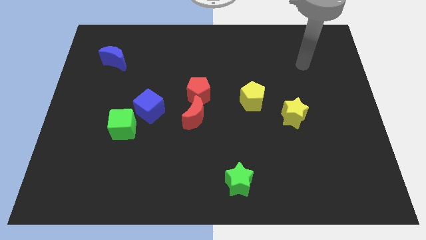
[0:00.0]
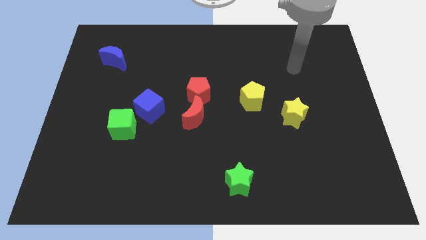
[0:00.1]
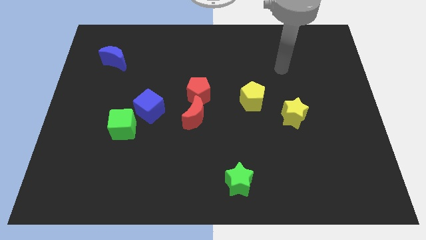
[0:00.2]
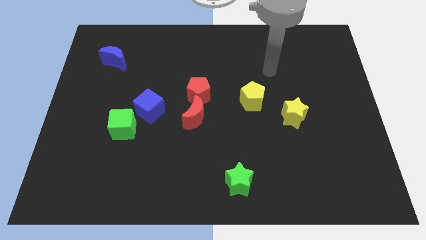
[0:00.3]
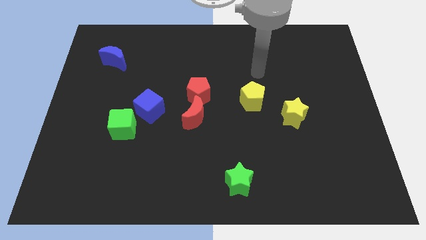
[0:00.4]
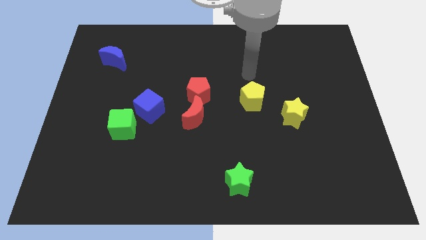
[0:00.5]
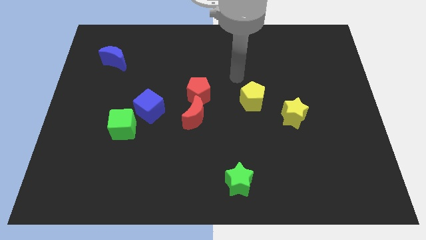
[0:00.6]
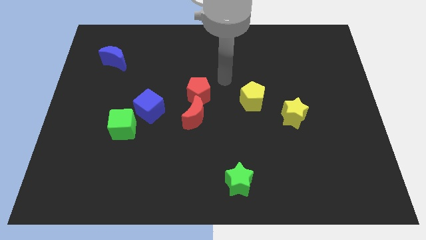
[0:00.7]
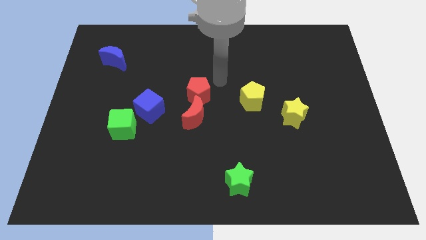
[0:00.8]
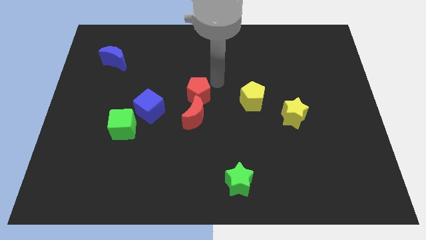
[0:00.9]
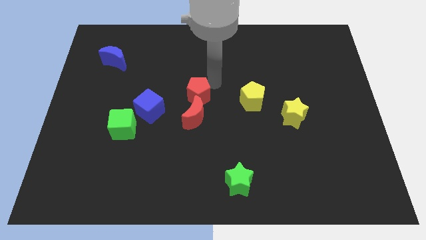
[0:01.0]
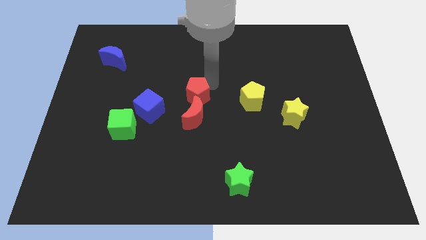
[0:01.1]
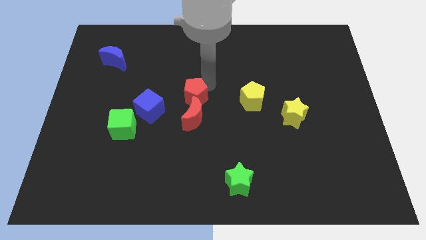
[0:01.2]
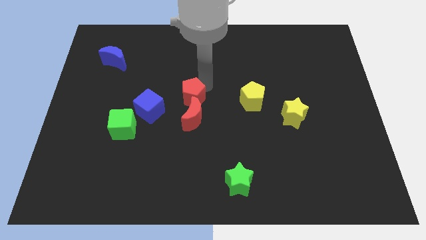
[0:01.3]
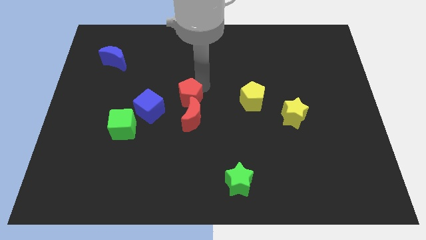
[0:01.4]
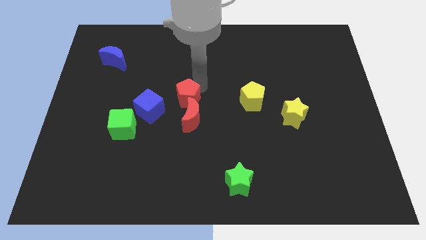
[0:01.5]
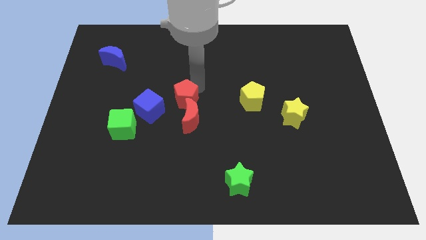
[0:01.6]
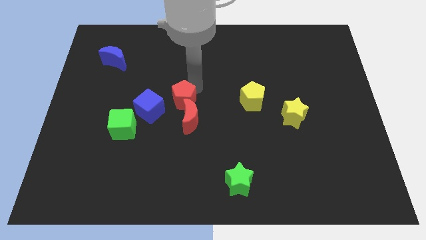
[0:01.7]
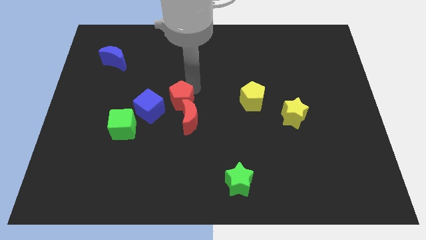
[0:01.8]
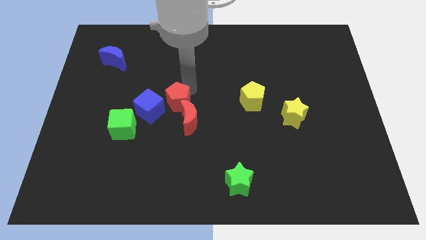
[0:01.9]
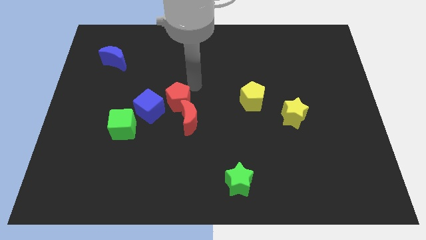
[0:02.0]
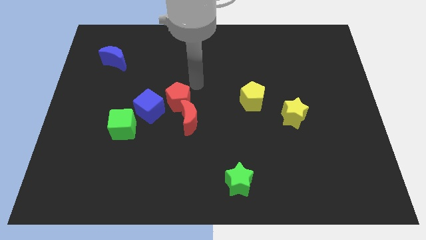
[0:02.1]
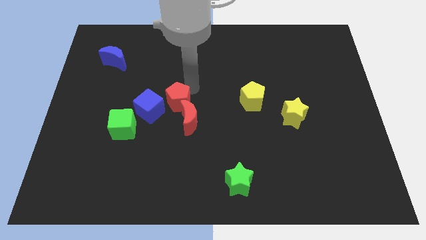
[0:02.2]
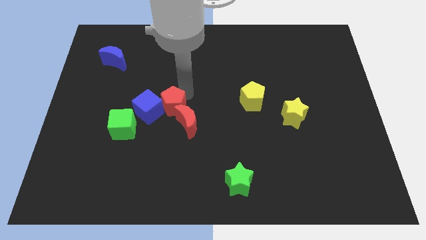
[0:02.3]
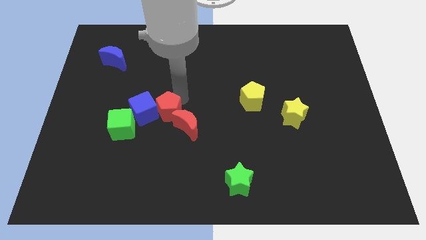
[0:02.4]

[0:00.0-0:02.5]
slightly slide the red pentagon downwards and then to the left

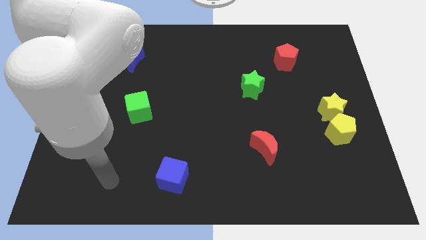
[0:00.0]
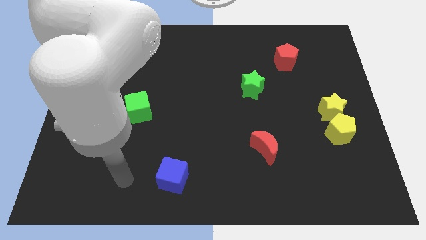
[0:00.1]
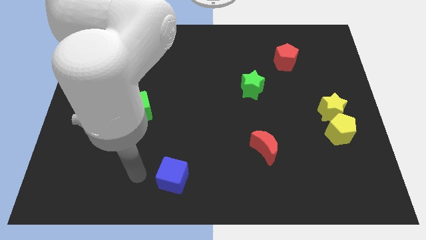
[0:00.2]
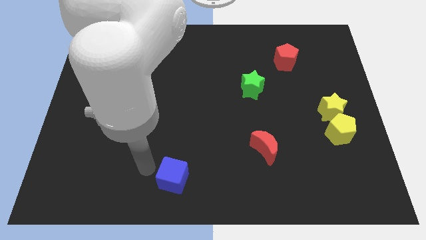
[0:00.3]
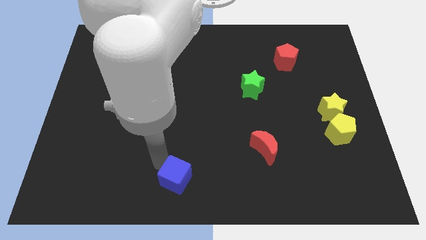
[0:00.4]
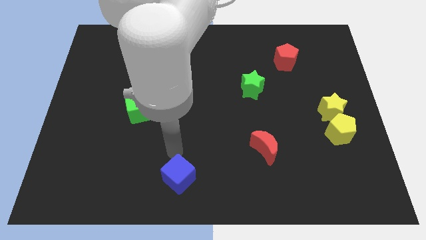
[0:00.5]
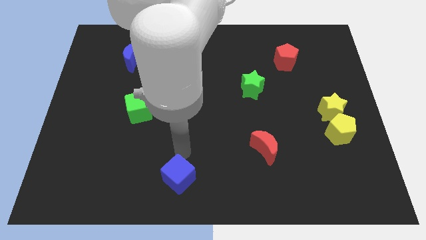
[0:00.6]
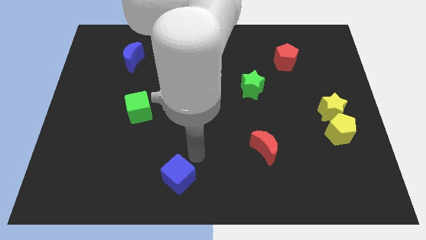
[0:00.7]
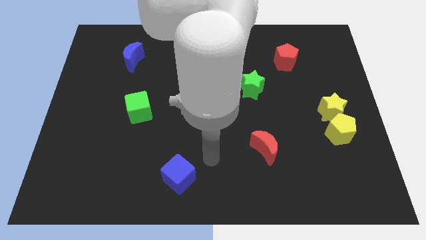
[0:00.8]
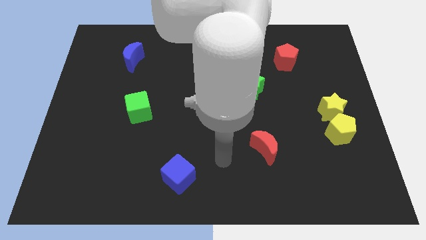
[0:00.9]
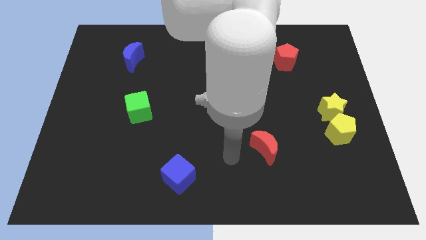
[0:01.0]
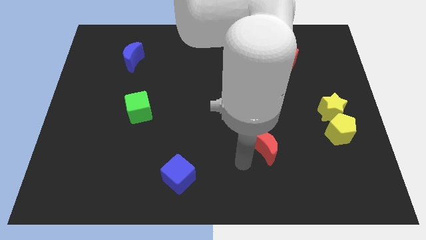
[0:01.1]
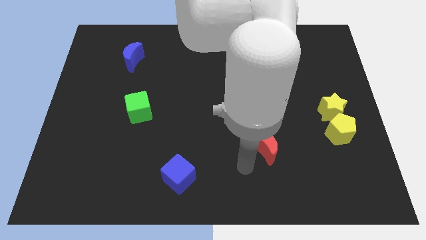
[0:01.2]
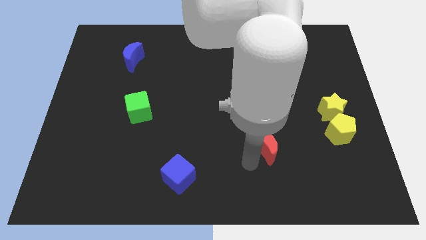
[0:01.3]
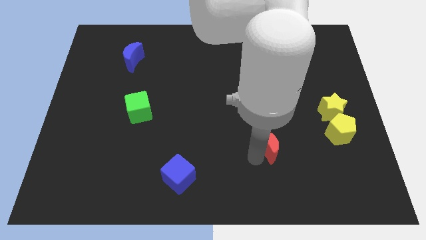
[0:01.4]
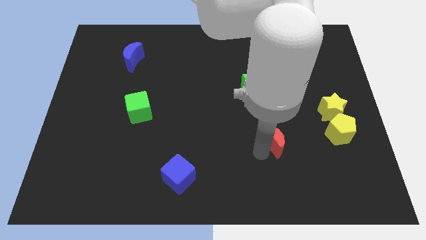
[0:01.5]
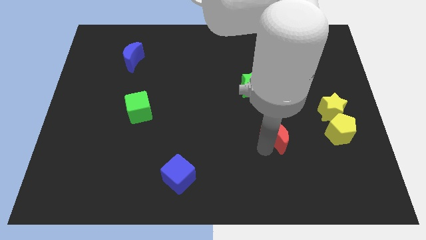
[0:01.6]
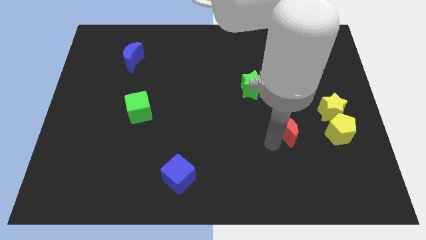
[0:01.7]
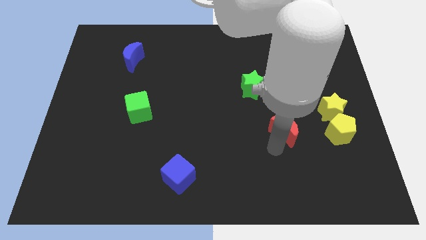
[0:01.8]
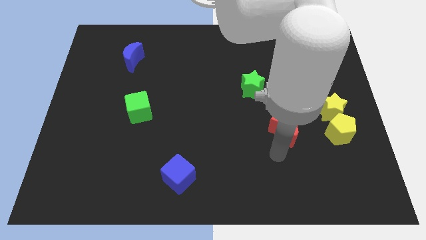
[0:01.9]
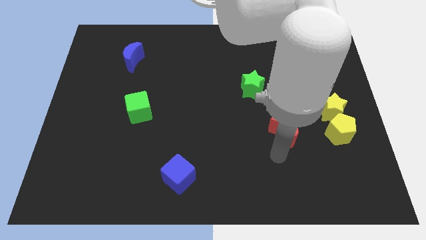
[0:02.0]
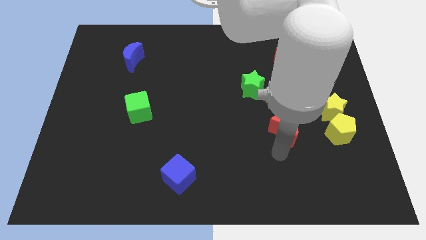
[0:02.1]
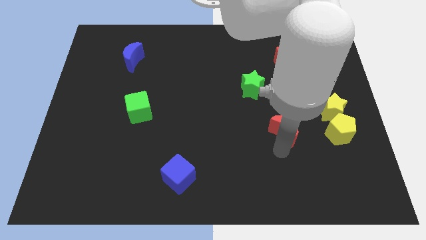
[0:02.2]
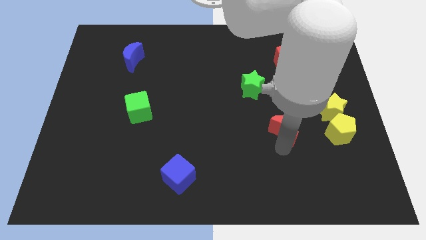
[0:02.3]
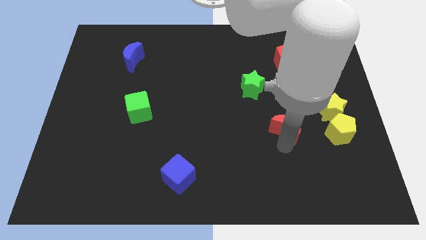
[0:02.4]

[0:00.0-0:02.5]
slightly push the red moon upwards and then right

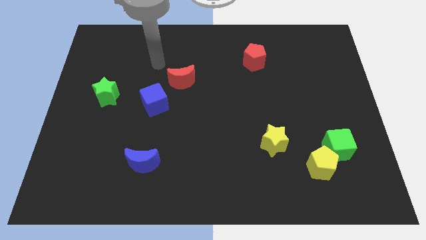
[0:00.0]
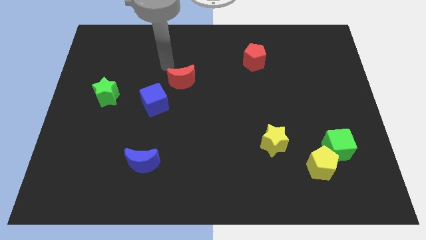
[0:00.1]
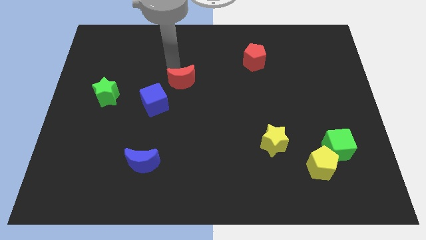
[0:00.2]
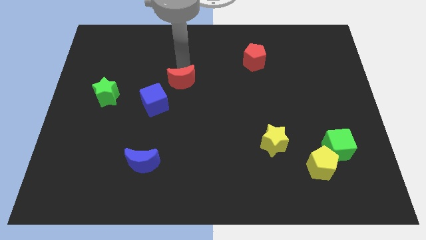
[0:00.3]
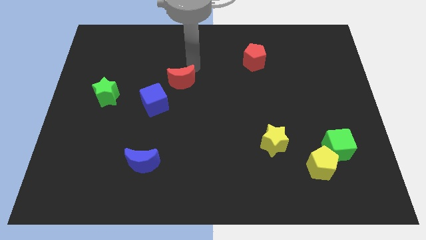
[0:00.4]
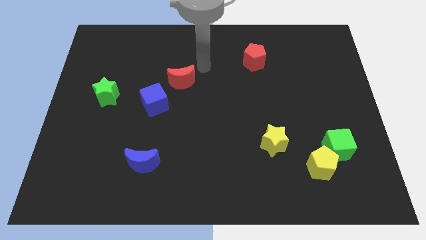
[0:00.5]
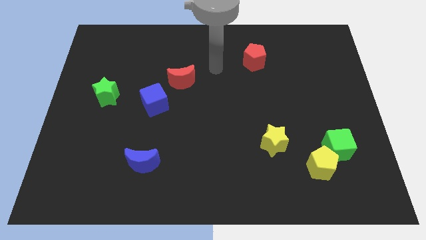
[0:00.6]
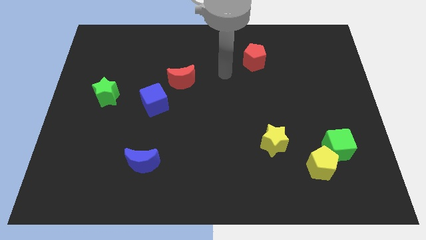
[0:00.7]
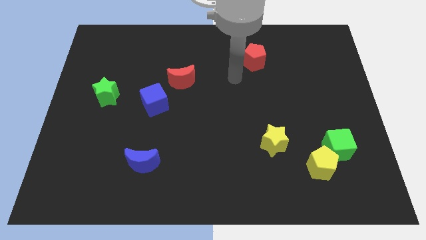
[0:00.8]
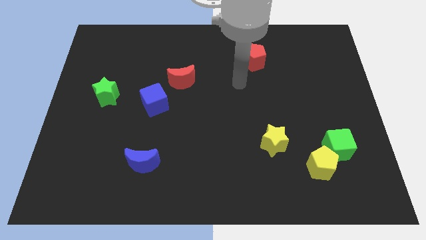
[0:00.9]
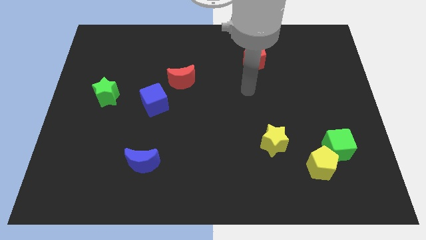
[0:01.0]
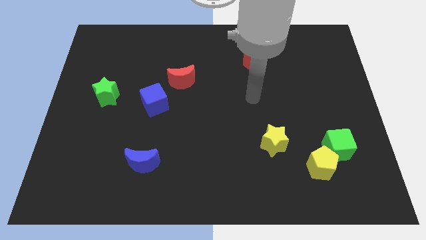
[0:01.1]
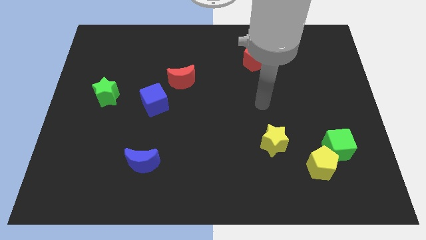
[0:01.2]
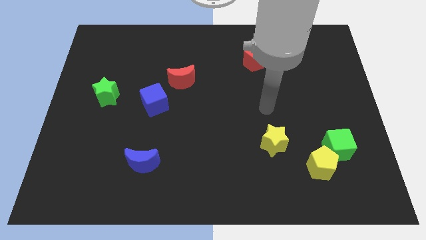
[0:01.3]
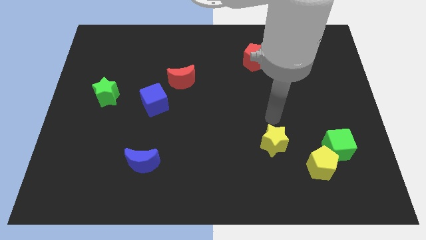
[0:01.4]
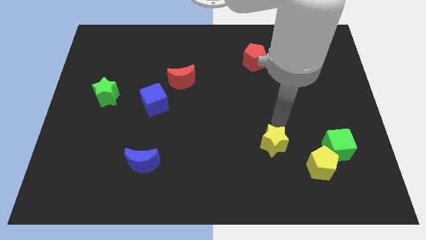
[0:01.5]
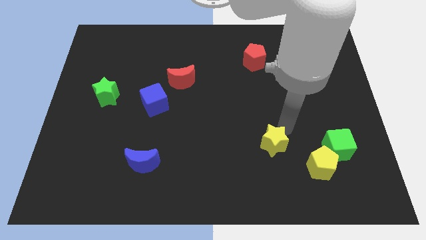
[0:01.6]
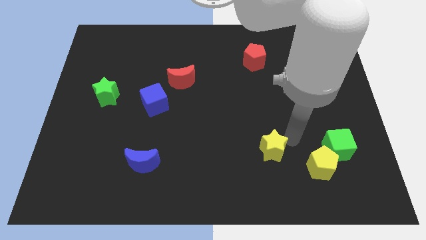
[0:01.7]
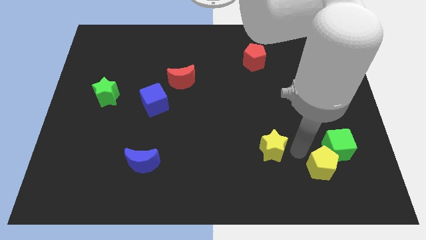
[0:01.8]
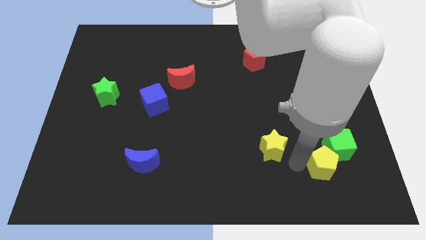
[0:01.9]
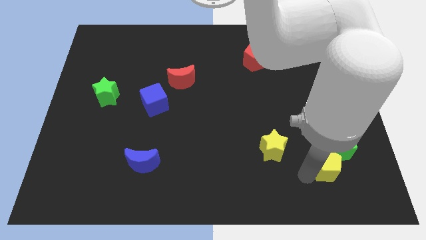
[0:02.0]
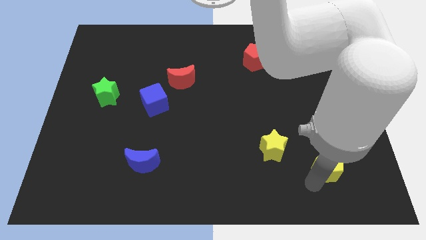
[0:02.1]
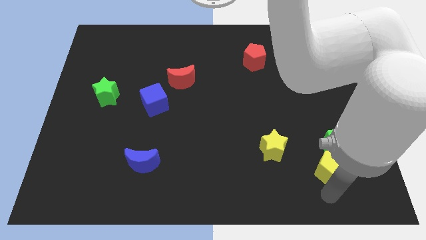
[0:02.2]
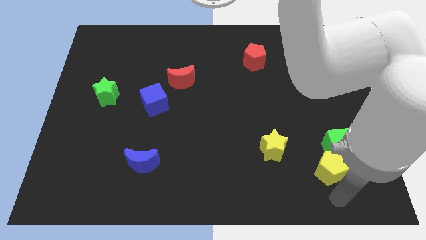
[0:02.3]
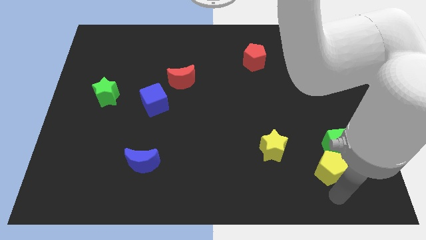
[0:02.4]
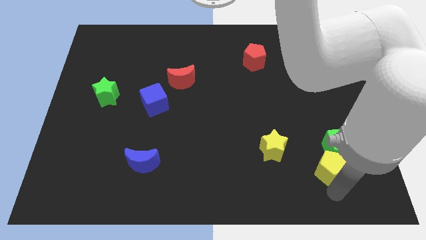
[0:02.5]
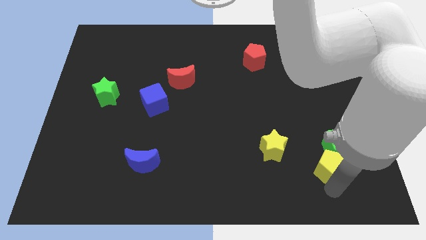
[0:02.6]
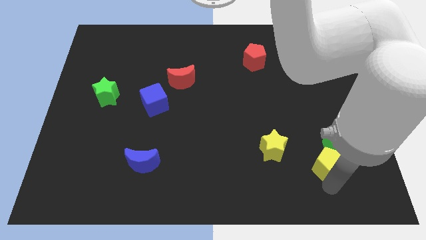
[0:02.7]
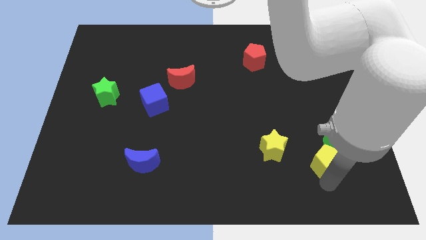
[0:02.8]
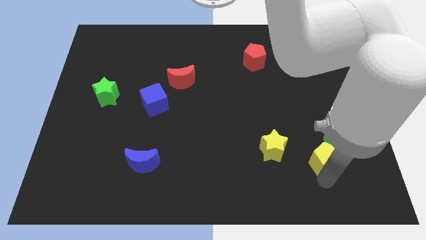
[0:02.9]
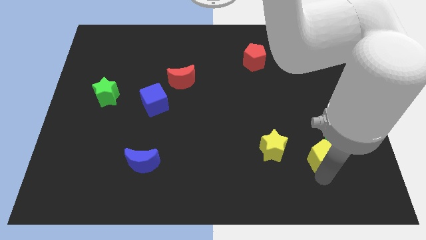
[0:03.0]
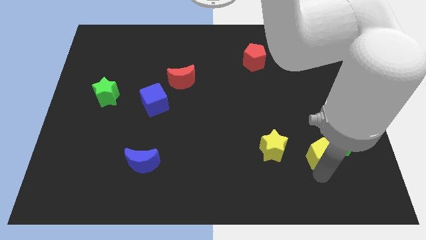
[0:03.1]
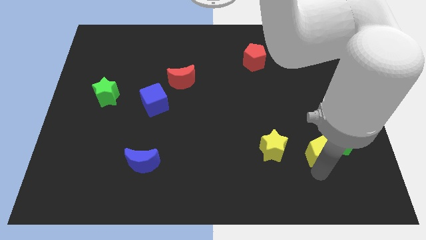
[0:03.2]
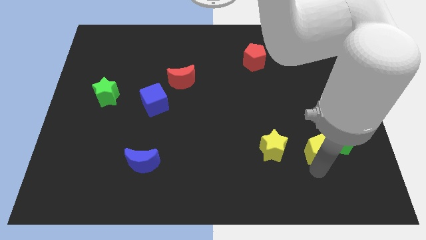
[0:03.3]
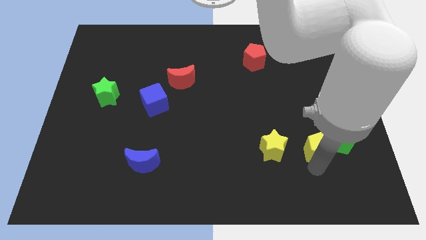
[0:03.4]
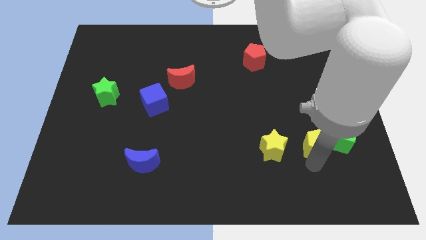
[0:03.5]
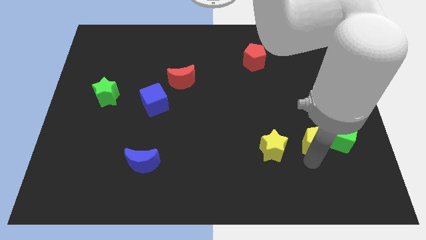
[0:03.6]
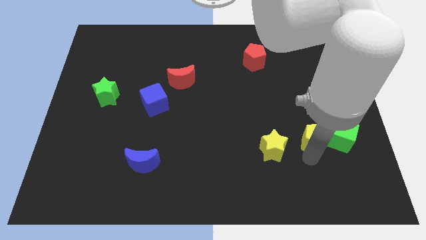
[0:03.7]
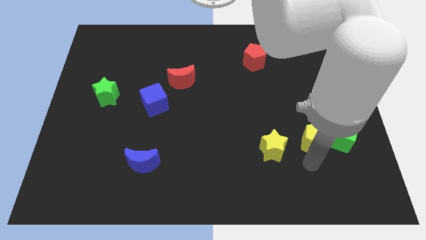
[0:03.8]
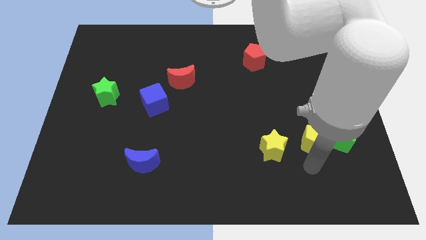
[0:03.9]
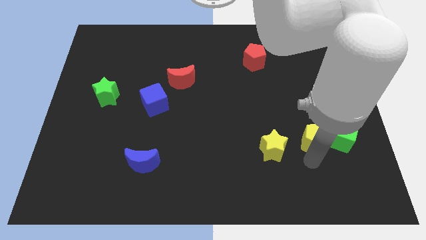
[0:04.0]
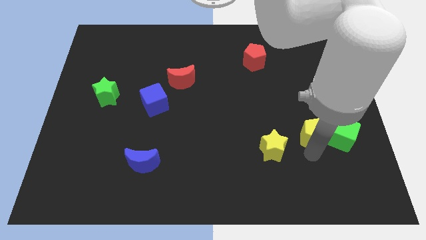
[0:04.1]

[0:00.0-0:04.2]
push the yellow pentagon a little bit up
